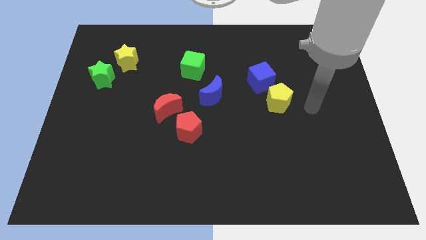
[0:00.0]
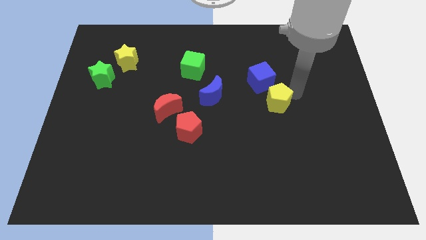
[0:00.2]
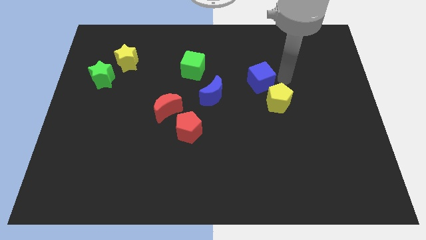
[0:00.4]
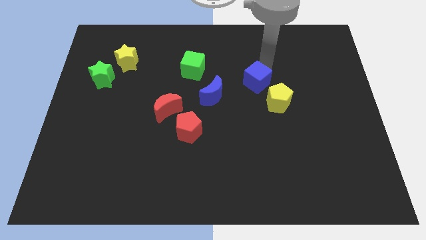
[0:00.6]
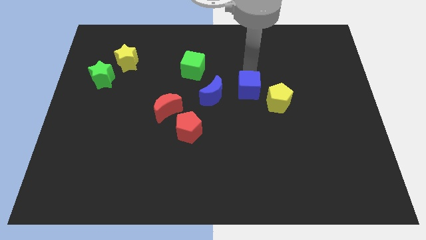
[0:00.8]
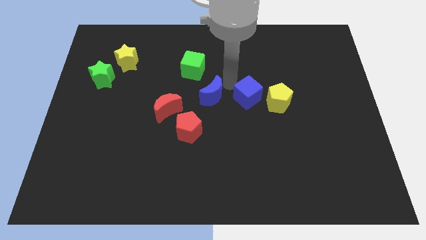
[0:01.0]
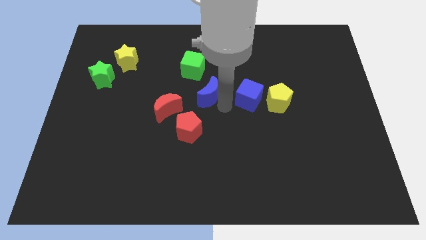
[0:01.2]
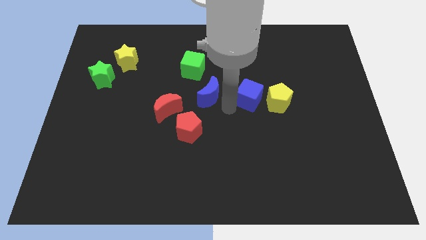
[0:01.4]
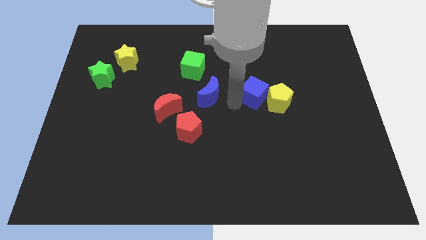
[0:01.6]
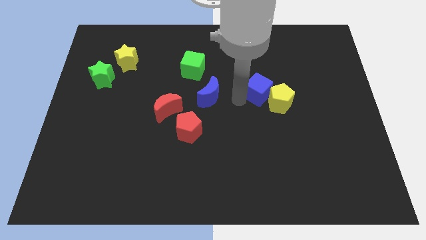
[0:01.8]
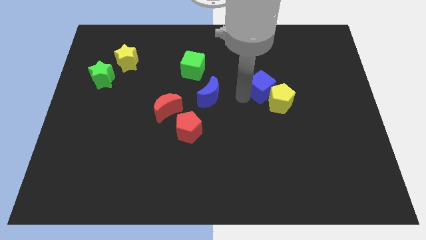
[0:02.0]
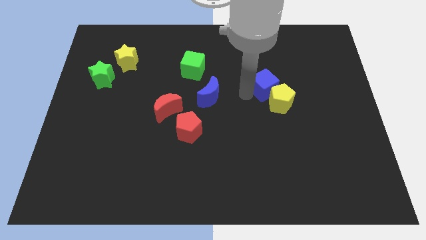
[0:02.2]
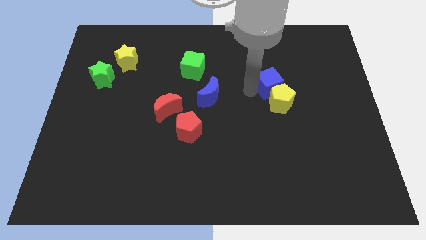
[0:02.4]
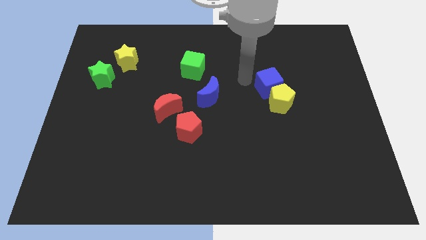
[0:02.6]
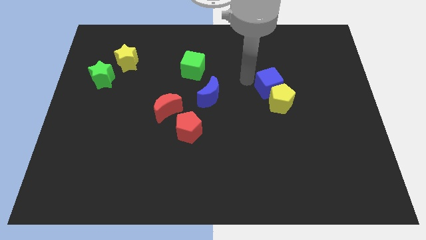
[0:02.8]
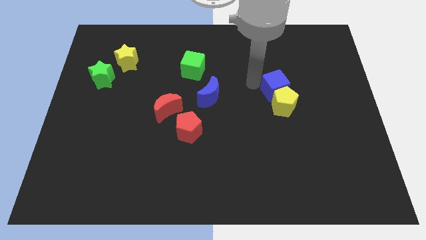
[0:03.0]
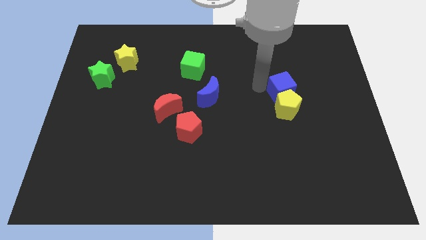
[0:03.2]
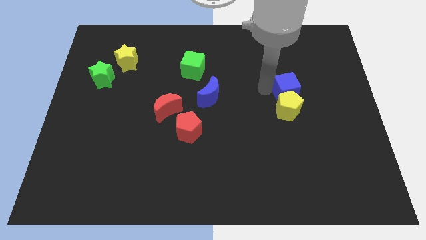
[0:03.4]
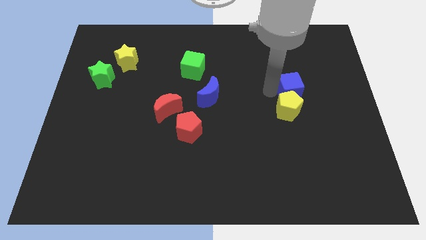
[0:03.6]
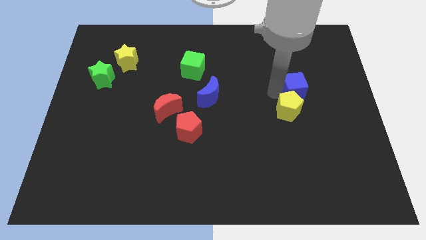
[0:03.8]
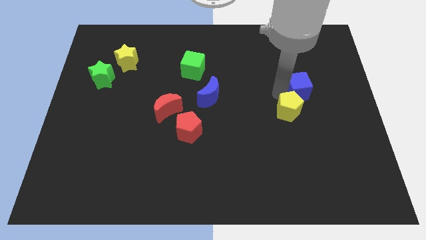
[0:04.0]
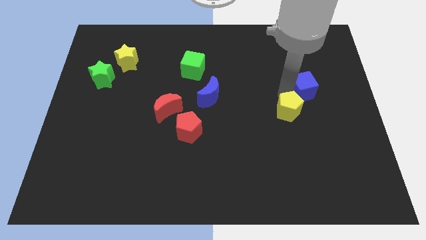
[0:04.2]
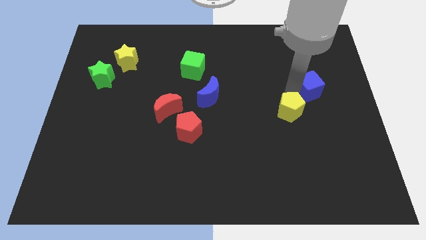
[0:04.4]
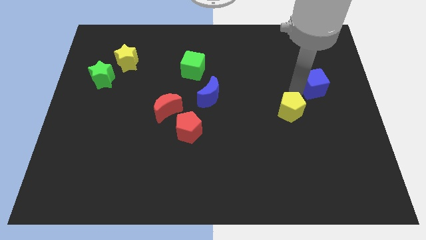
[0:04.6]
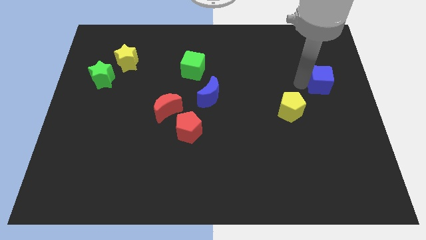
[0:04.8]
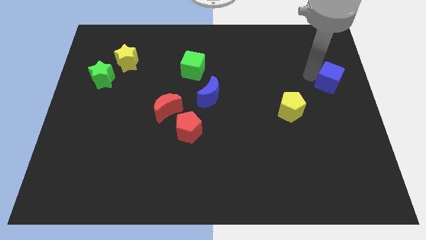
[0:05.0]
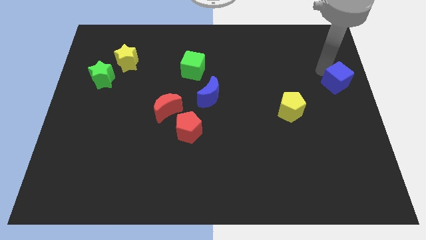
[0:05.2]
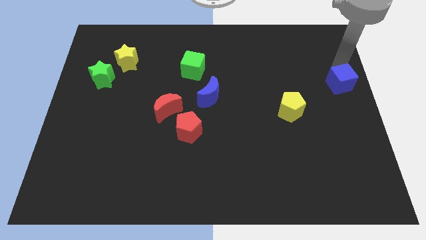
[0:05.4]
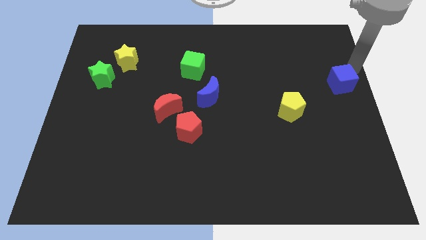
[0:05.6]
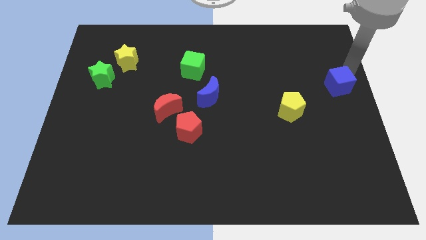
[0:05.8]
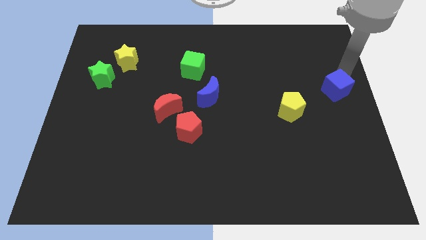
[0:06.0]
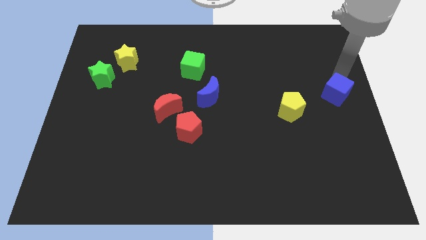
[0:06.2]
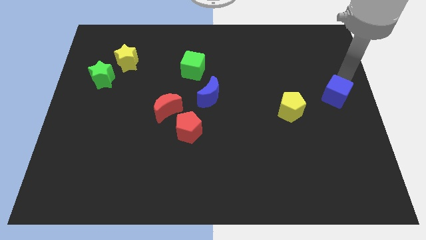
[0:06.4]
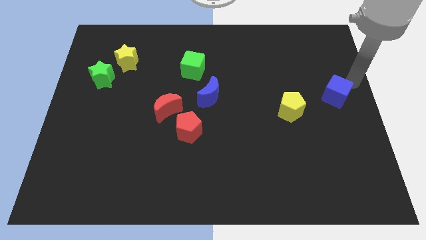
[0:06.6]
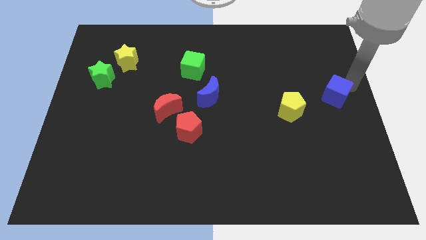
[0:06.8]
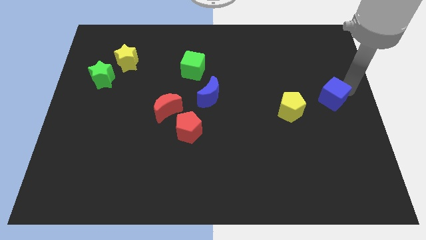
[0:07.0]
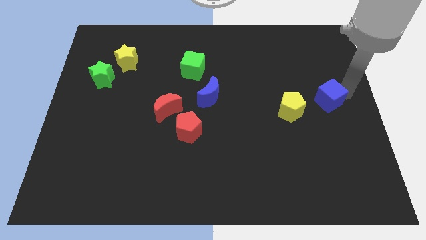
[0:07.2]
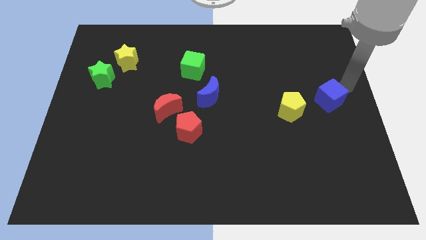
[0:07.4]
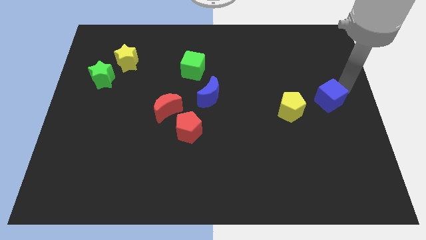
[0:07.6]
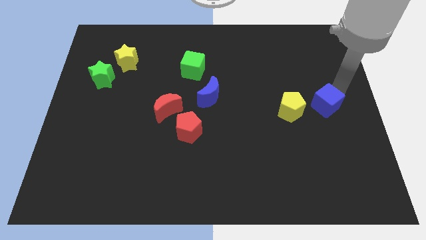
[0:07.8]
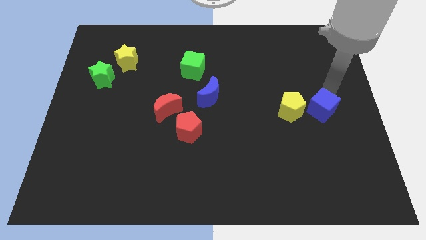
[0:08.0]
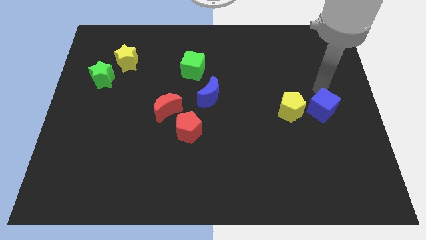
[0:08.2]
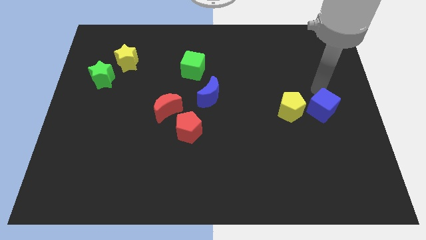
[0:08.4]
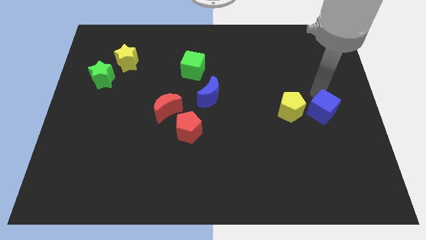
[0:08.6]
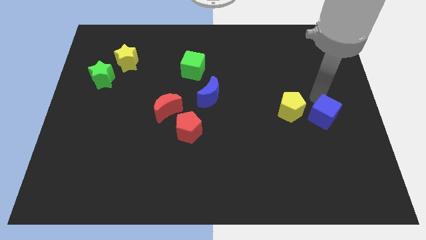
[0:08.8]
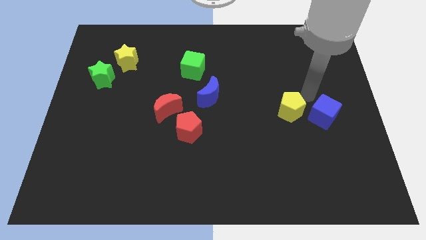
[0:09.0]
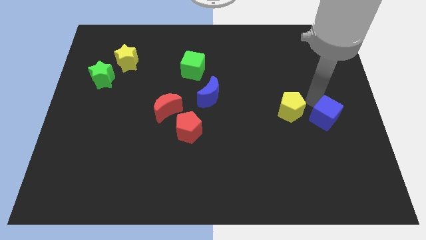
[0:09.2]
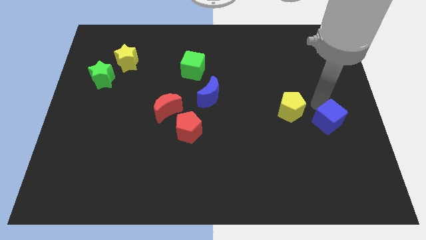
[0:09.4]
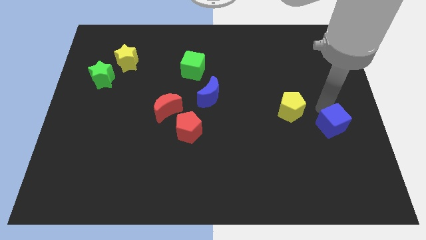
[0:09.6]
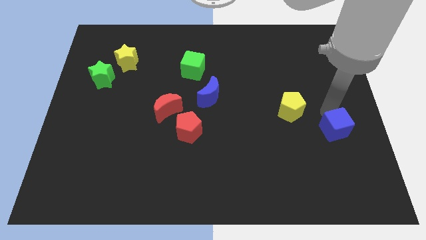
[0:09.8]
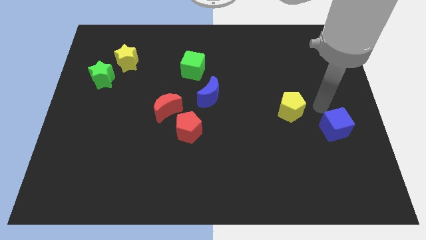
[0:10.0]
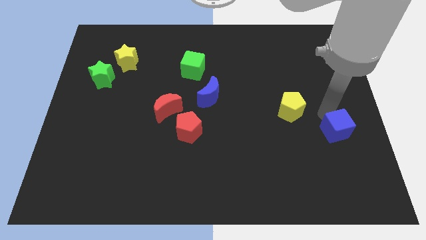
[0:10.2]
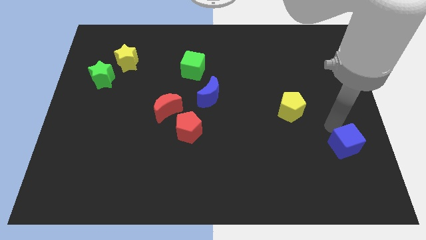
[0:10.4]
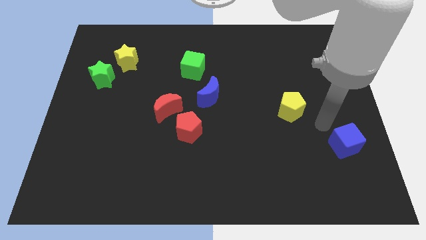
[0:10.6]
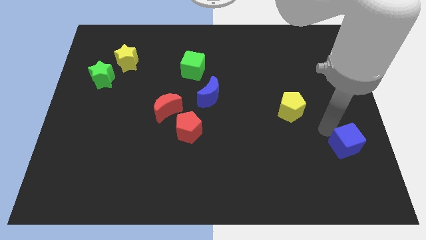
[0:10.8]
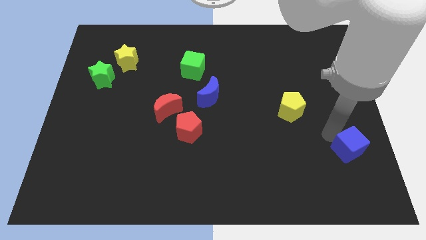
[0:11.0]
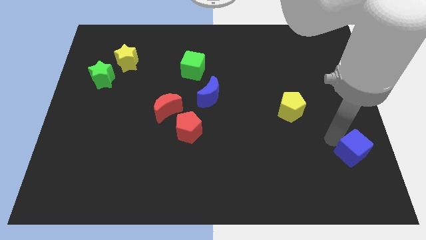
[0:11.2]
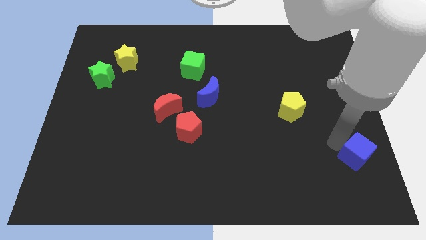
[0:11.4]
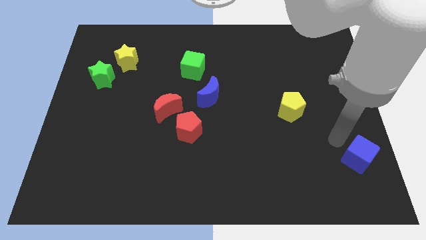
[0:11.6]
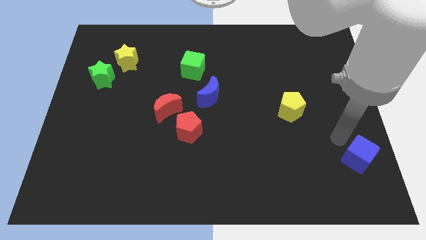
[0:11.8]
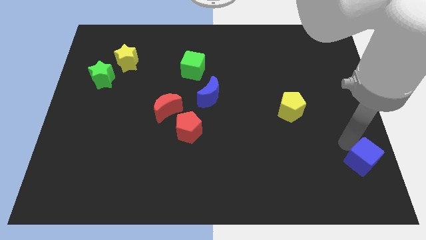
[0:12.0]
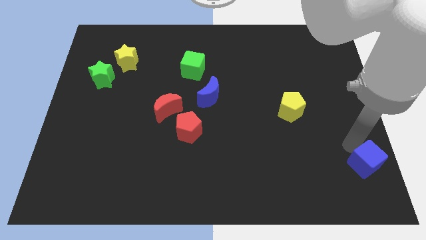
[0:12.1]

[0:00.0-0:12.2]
put the blue cube to the bottom right corner

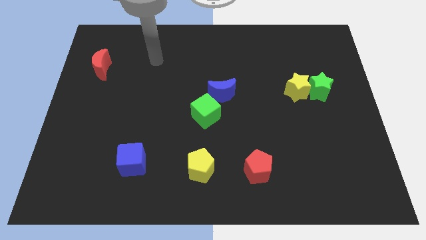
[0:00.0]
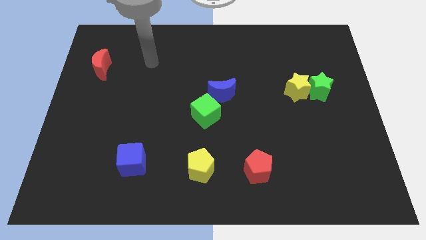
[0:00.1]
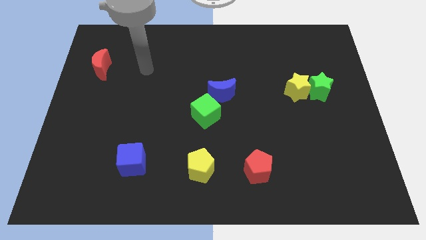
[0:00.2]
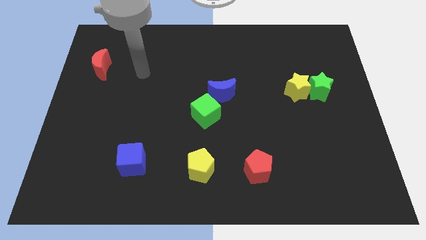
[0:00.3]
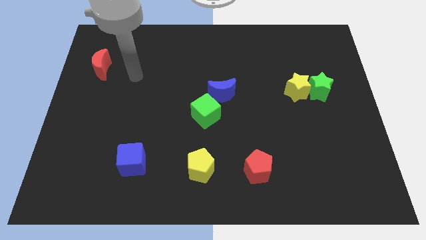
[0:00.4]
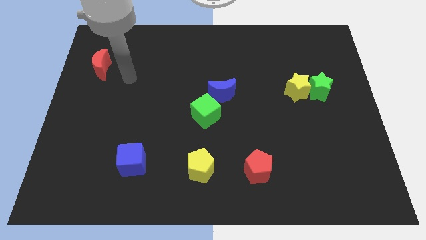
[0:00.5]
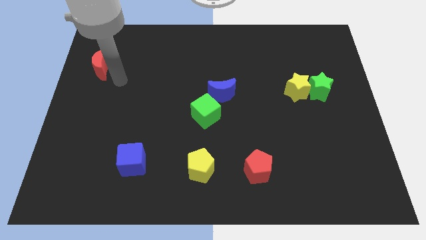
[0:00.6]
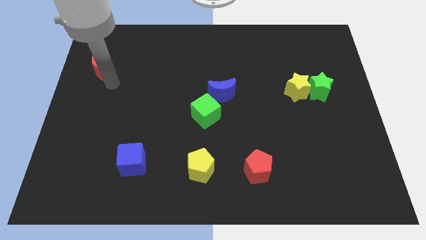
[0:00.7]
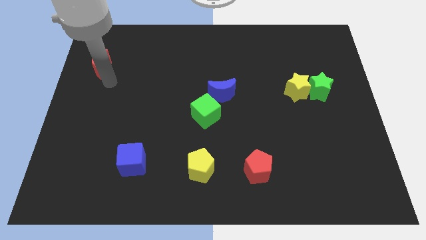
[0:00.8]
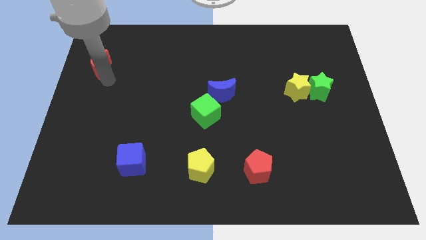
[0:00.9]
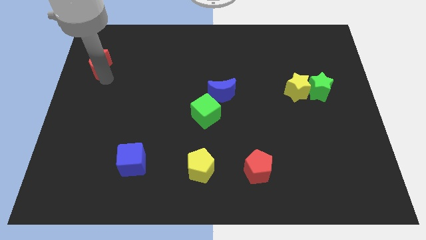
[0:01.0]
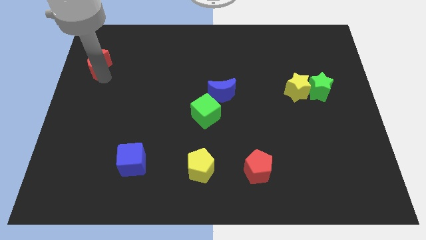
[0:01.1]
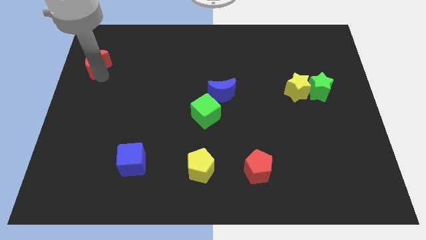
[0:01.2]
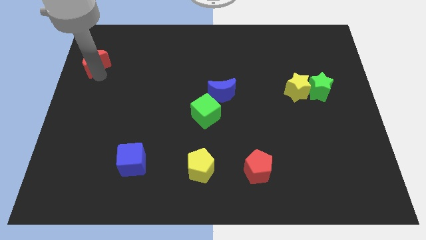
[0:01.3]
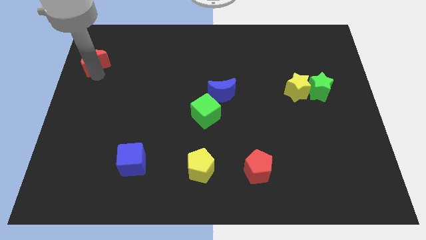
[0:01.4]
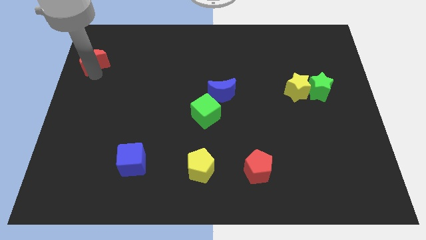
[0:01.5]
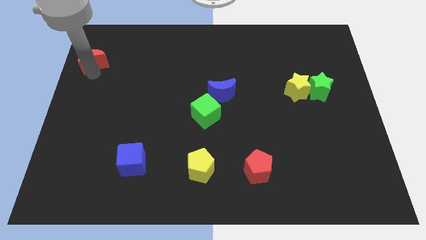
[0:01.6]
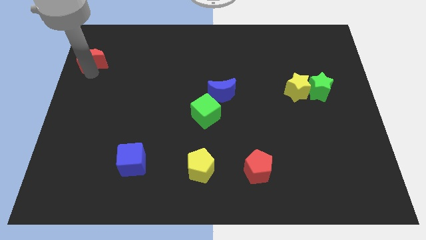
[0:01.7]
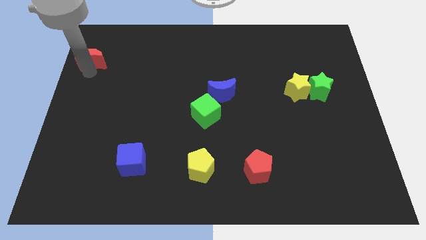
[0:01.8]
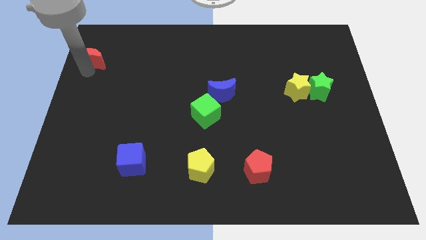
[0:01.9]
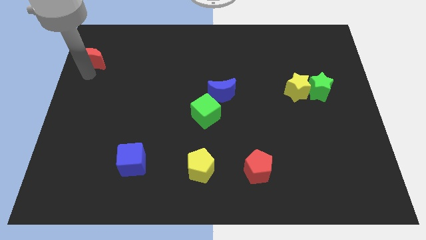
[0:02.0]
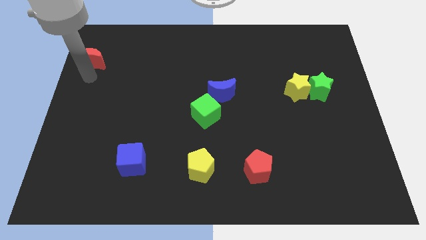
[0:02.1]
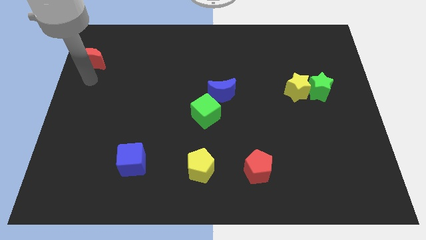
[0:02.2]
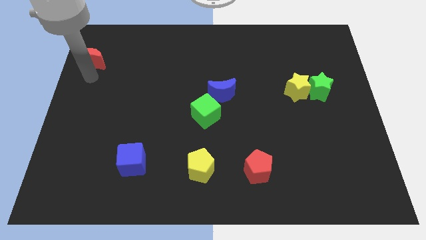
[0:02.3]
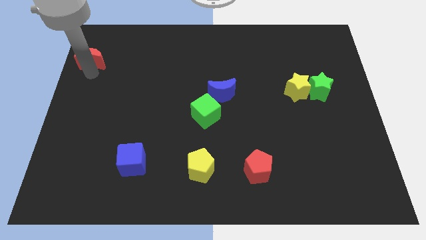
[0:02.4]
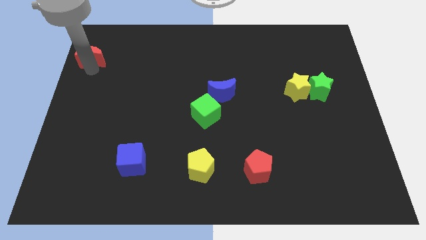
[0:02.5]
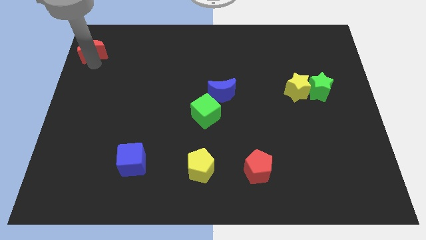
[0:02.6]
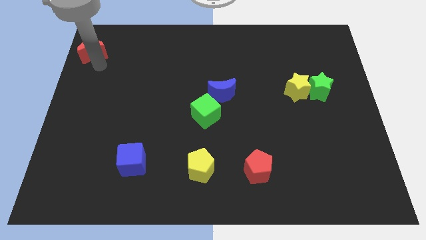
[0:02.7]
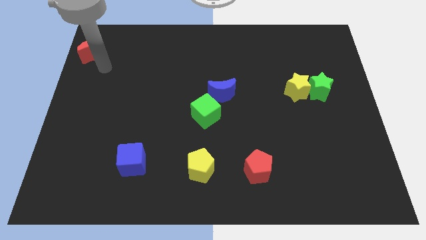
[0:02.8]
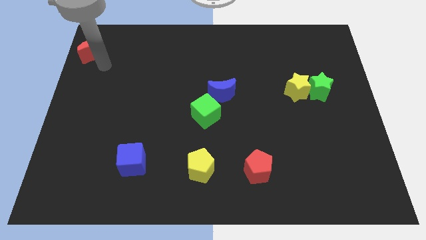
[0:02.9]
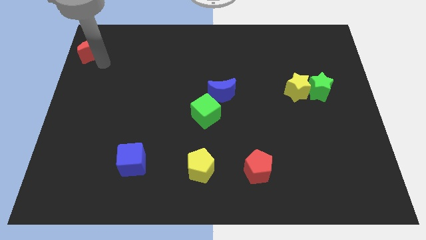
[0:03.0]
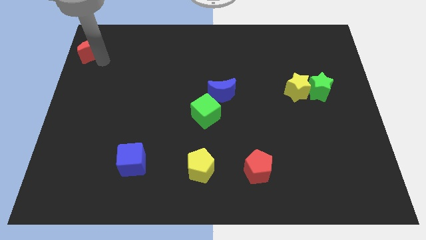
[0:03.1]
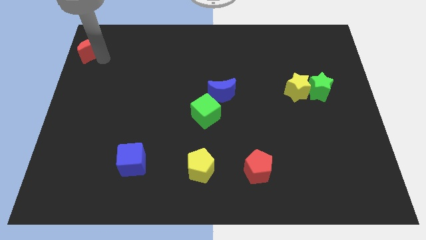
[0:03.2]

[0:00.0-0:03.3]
push the red moon to the top left
